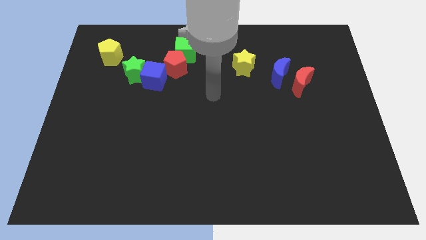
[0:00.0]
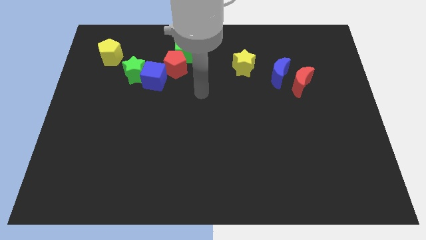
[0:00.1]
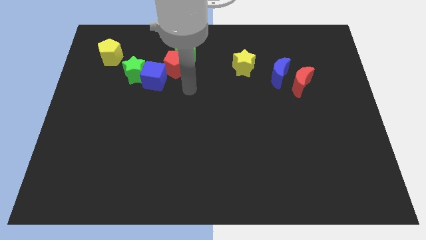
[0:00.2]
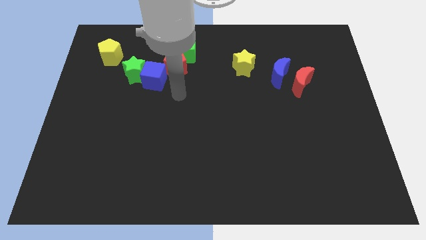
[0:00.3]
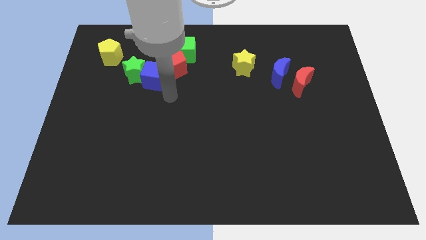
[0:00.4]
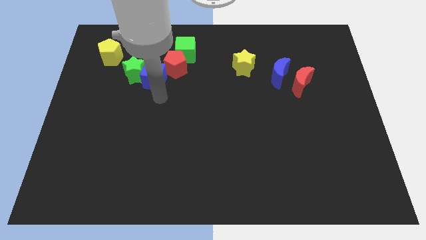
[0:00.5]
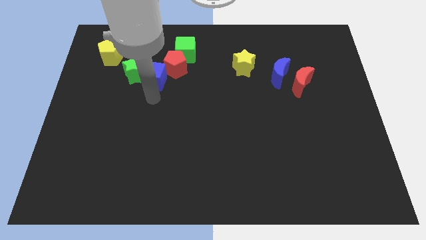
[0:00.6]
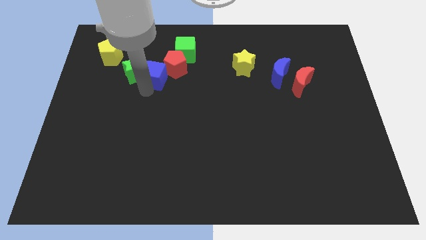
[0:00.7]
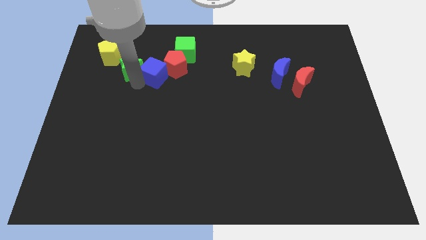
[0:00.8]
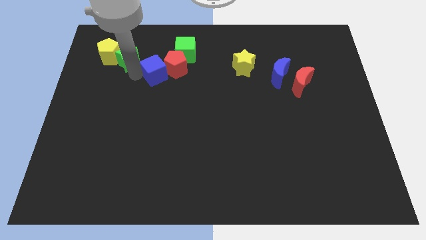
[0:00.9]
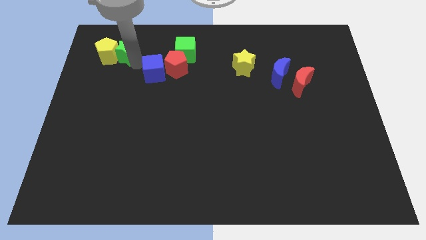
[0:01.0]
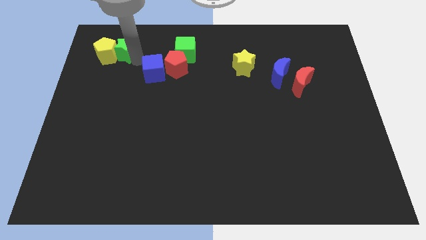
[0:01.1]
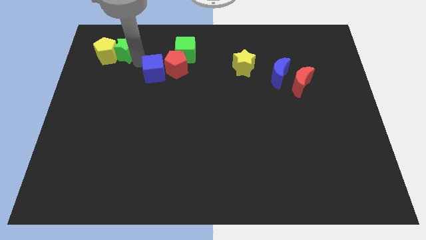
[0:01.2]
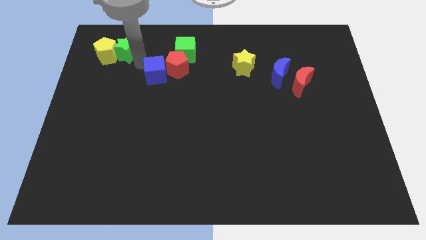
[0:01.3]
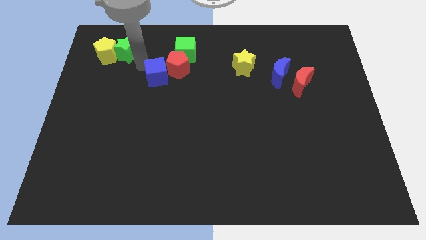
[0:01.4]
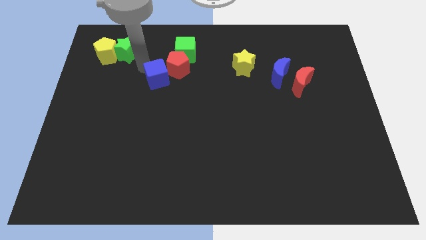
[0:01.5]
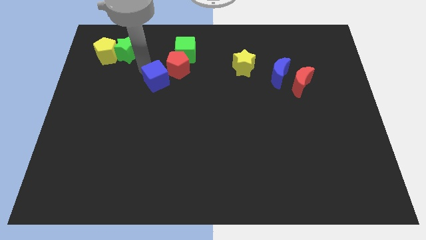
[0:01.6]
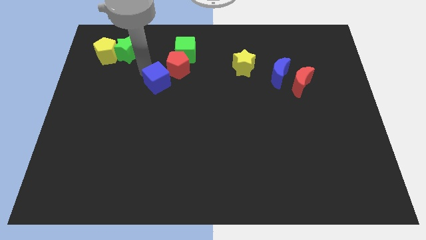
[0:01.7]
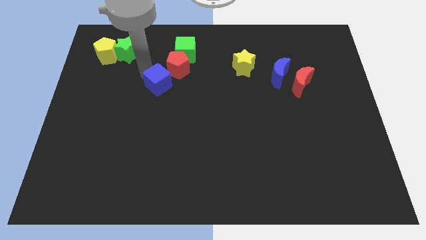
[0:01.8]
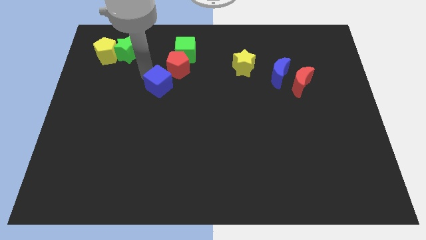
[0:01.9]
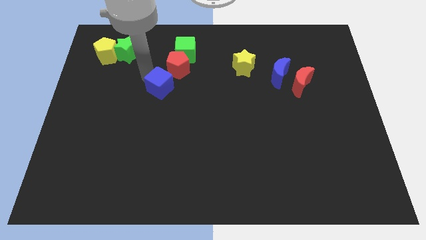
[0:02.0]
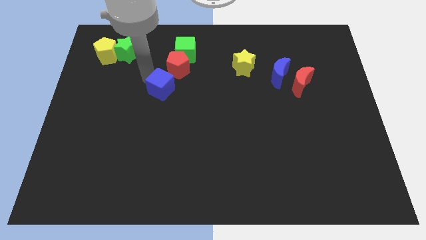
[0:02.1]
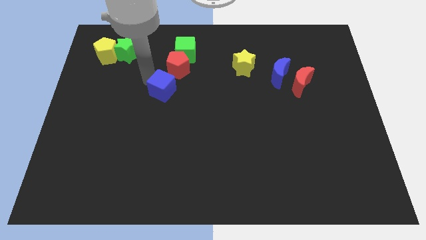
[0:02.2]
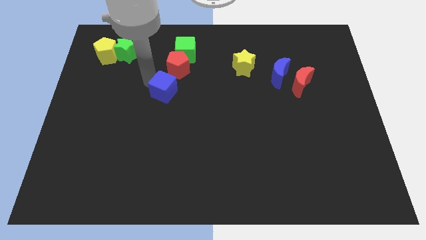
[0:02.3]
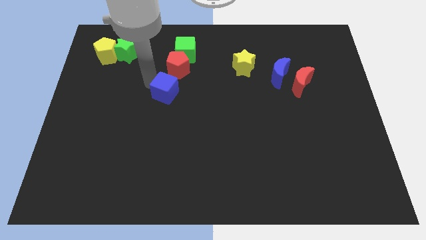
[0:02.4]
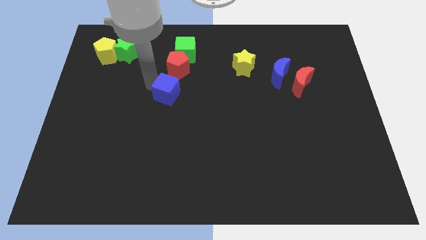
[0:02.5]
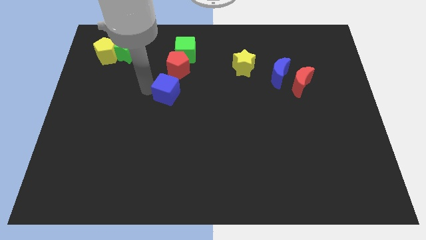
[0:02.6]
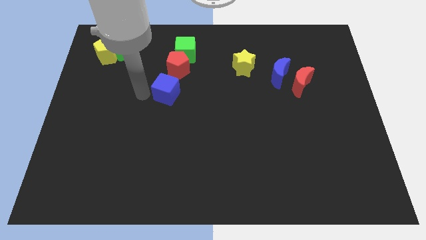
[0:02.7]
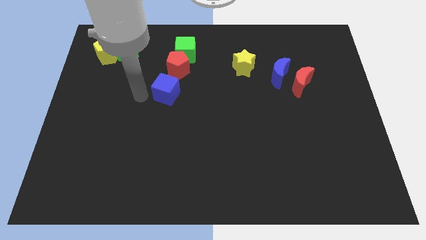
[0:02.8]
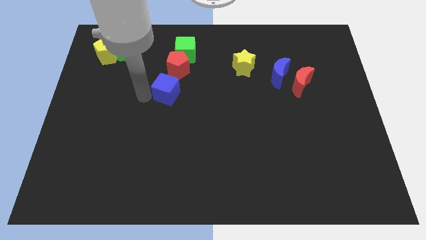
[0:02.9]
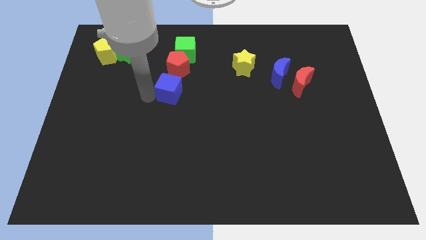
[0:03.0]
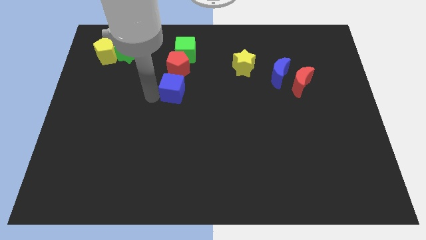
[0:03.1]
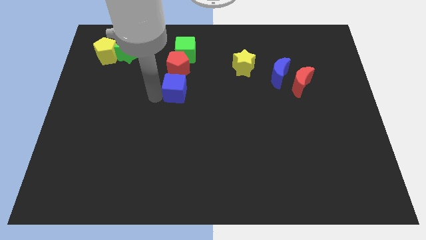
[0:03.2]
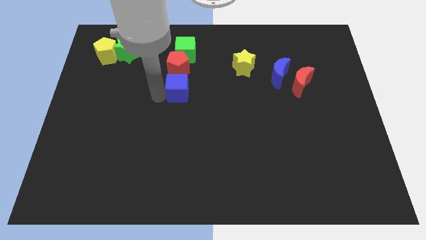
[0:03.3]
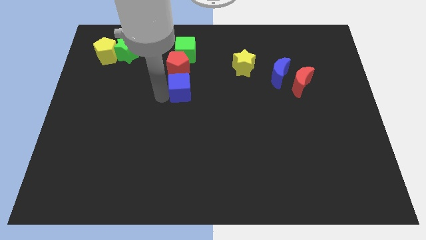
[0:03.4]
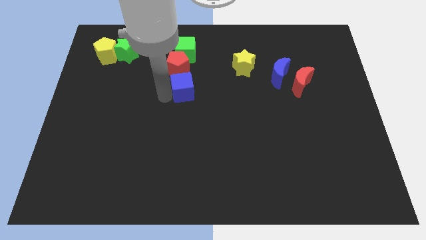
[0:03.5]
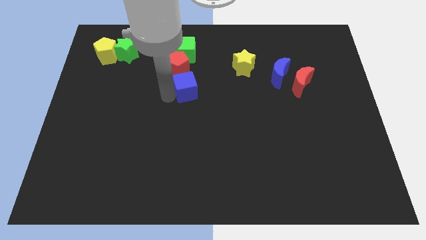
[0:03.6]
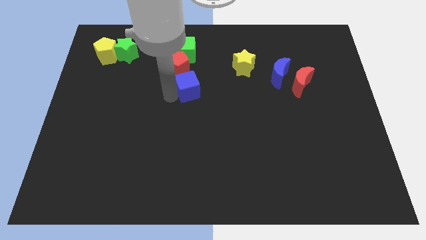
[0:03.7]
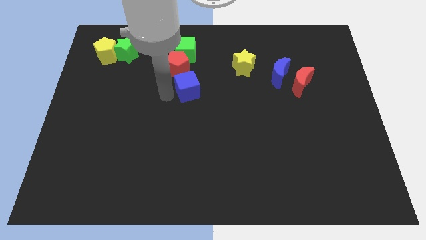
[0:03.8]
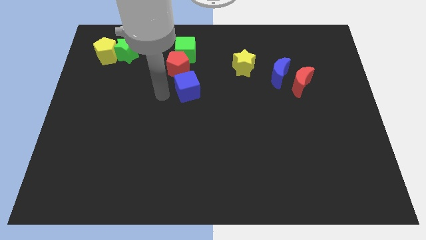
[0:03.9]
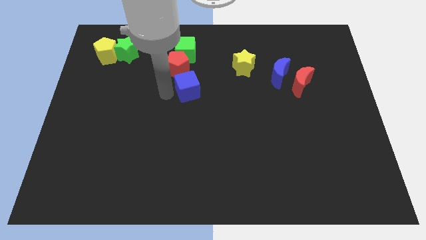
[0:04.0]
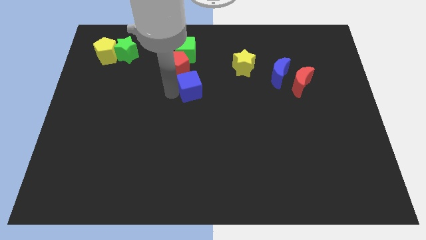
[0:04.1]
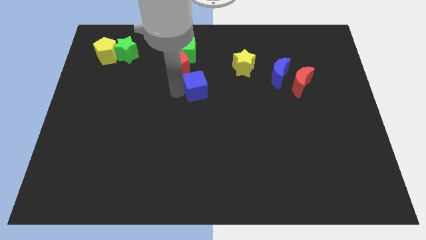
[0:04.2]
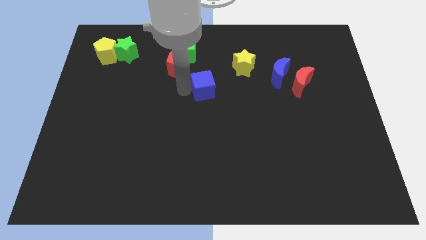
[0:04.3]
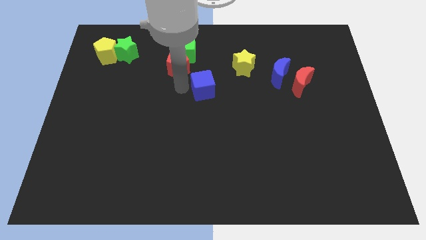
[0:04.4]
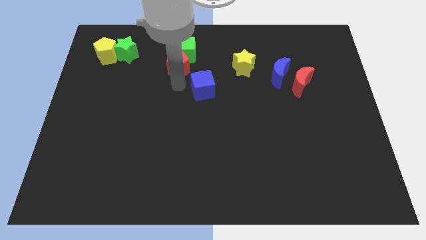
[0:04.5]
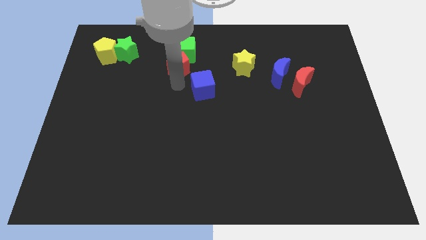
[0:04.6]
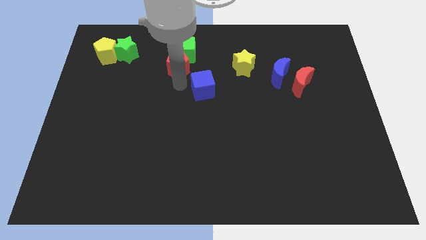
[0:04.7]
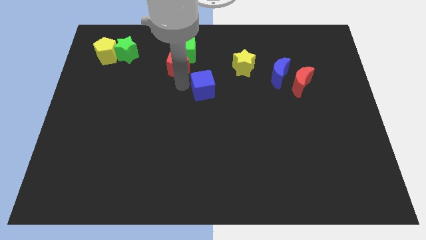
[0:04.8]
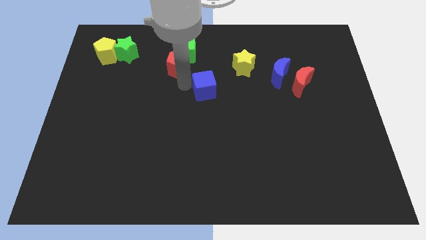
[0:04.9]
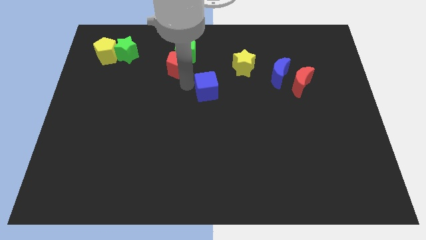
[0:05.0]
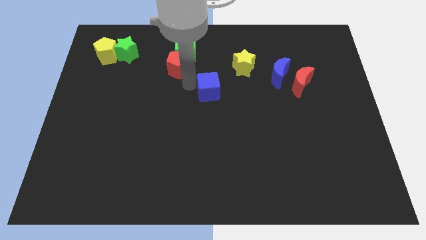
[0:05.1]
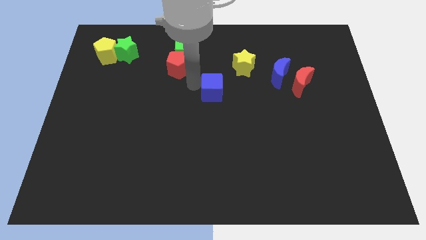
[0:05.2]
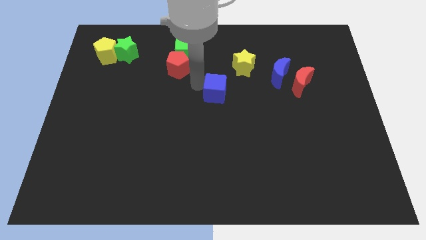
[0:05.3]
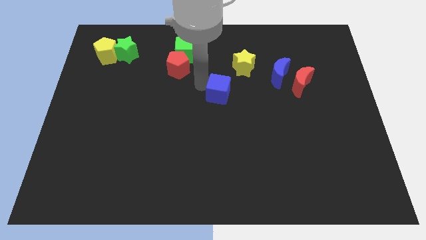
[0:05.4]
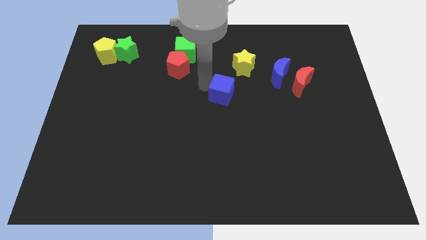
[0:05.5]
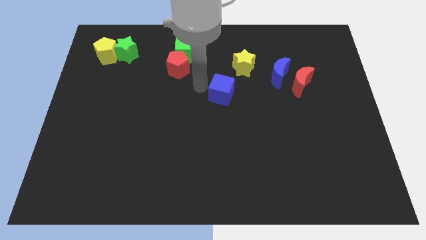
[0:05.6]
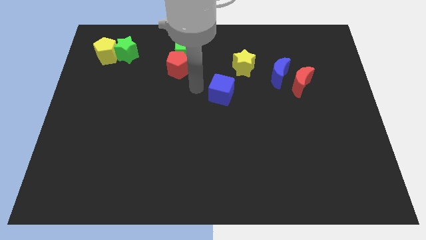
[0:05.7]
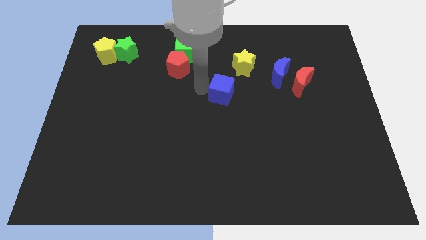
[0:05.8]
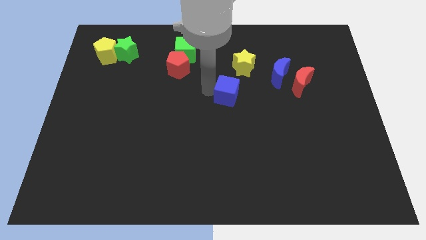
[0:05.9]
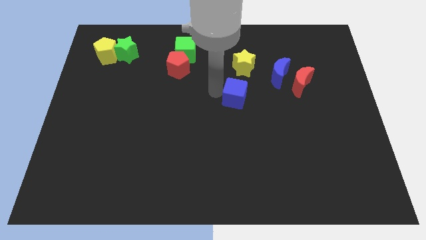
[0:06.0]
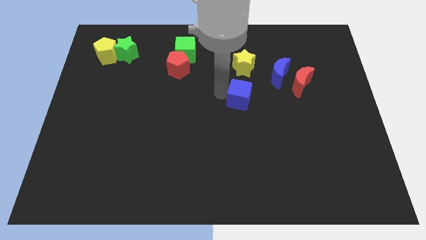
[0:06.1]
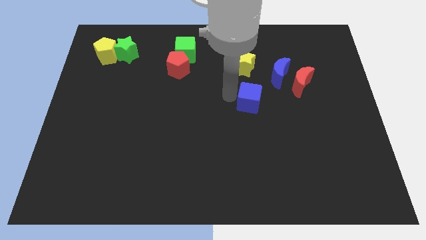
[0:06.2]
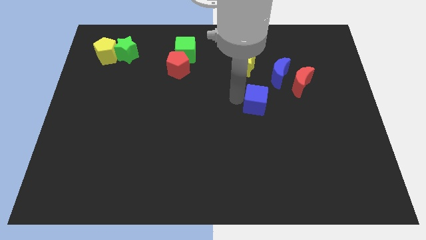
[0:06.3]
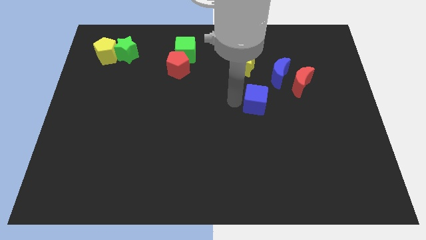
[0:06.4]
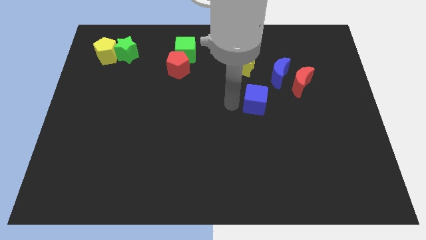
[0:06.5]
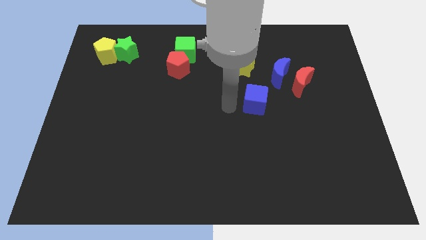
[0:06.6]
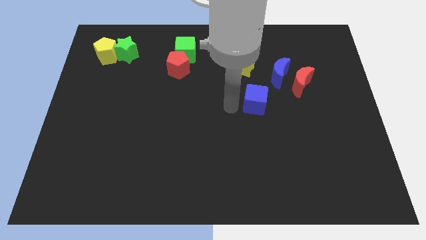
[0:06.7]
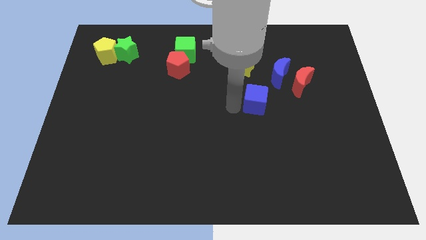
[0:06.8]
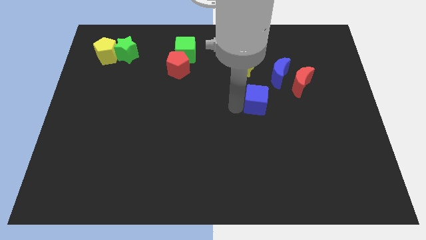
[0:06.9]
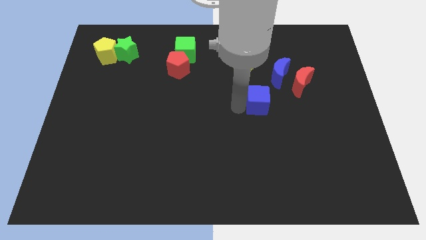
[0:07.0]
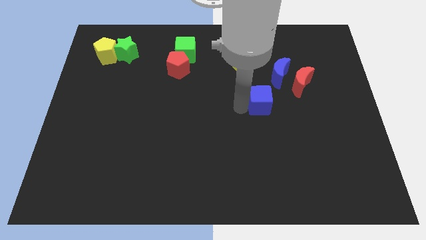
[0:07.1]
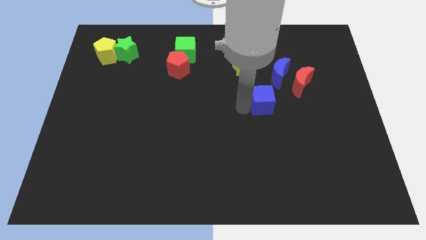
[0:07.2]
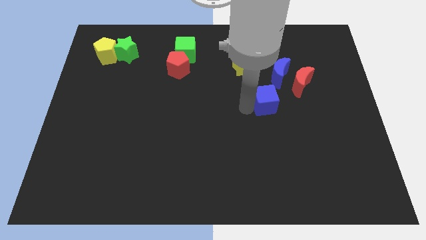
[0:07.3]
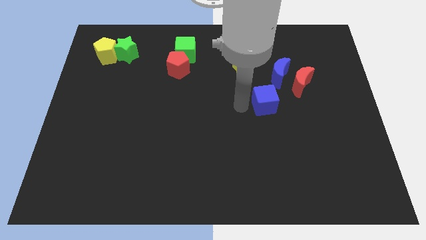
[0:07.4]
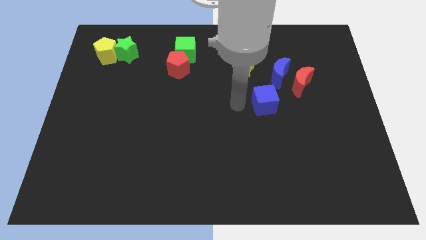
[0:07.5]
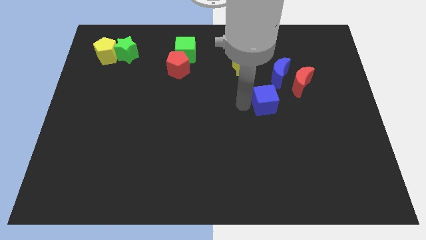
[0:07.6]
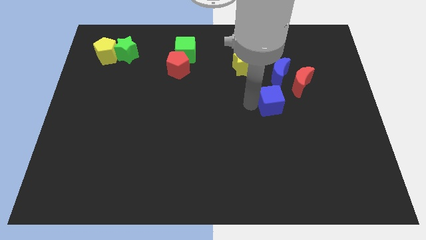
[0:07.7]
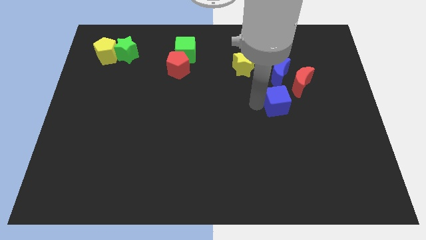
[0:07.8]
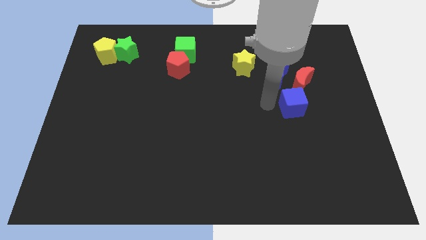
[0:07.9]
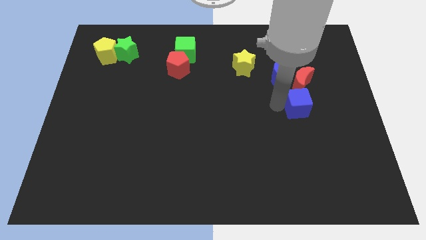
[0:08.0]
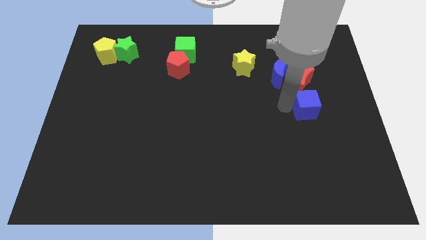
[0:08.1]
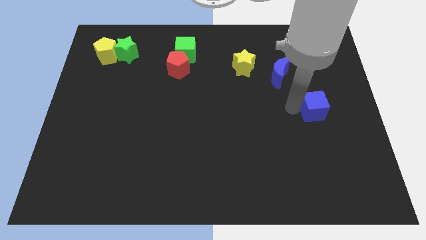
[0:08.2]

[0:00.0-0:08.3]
slide the blue cube to the bottom right of the red moon
